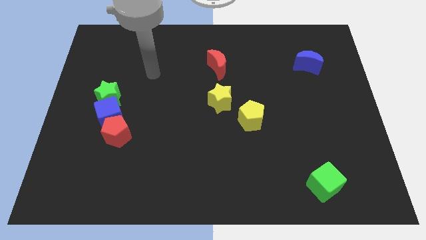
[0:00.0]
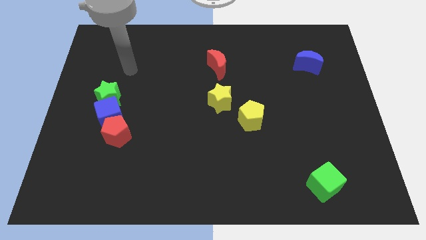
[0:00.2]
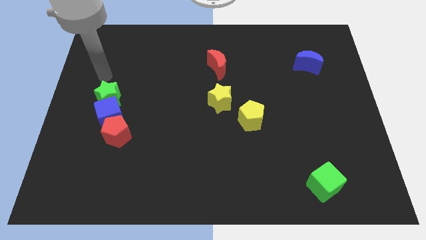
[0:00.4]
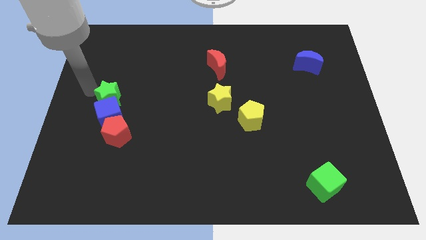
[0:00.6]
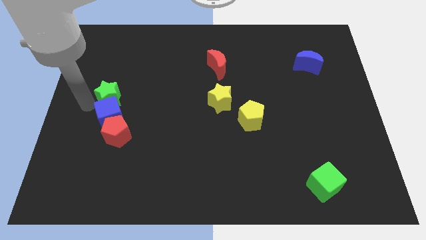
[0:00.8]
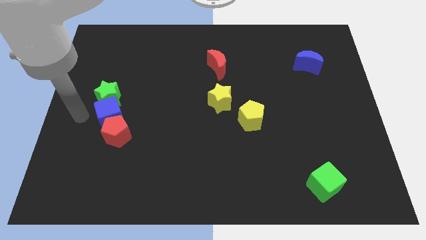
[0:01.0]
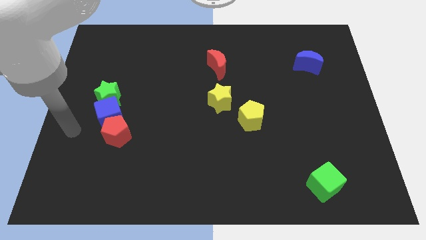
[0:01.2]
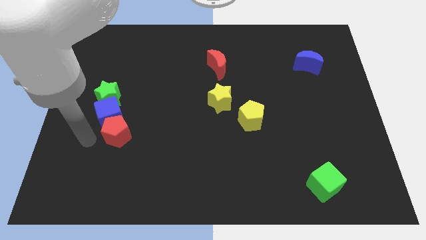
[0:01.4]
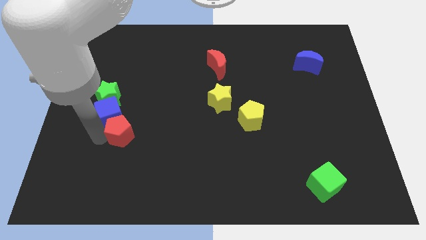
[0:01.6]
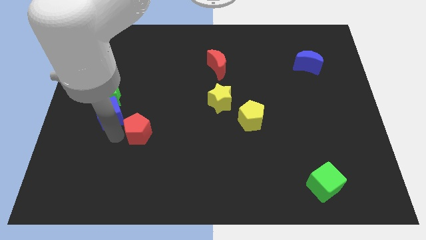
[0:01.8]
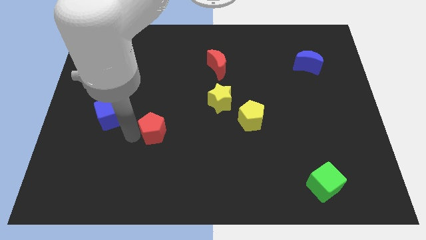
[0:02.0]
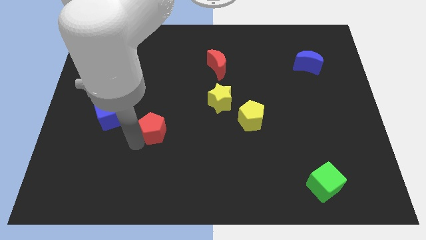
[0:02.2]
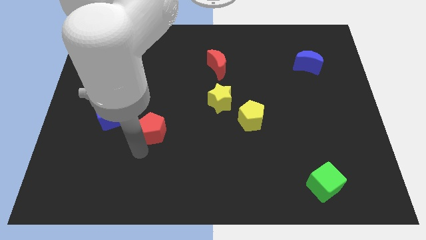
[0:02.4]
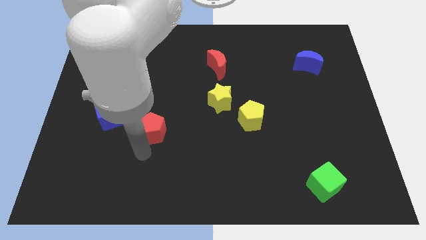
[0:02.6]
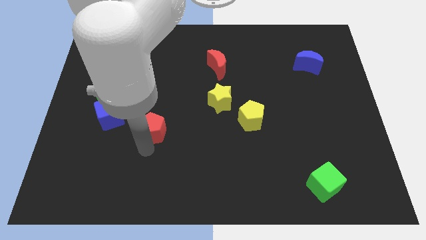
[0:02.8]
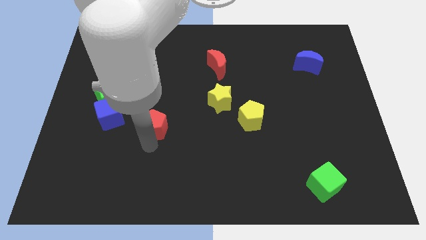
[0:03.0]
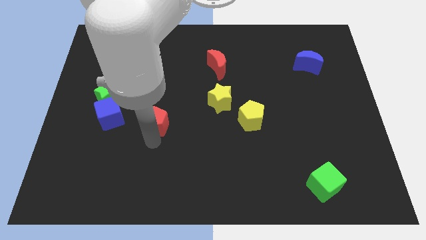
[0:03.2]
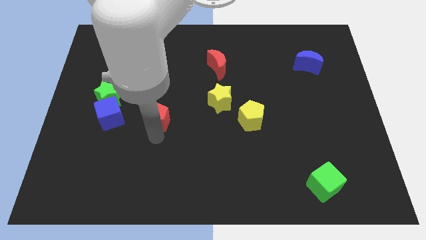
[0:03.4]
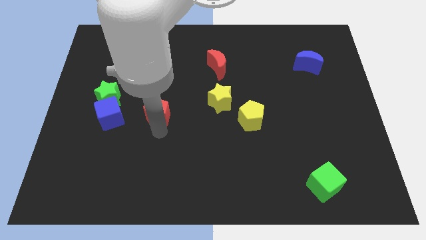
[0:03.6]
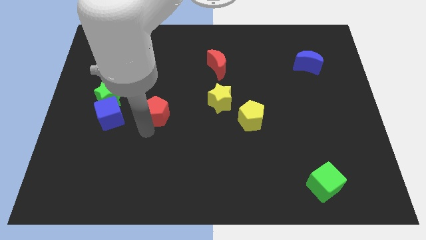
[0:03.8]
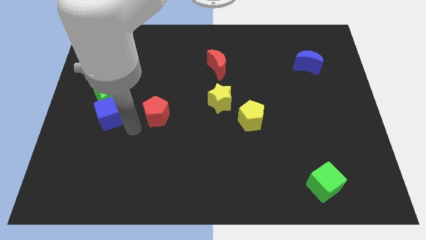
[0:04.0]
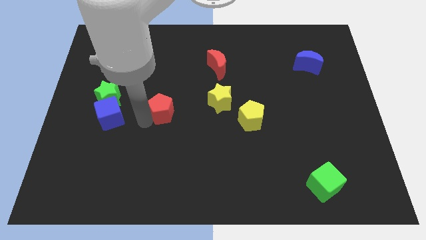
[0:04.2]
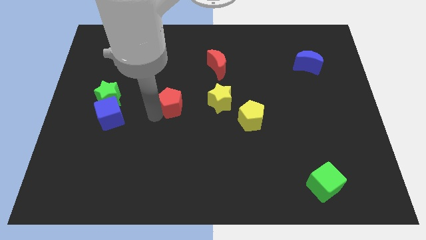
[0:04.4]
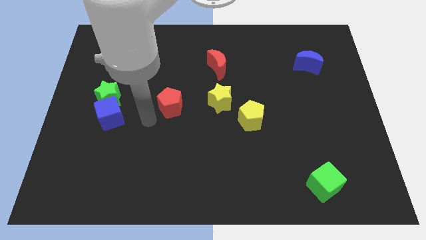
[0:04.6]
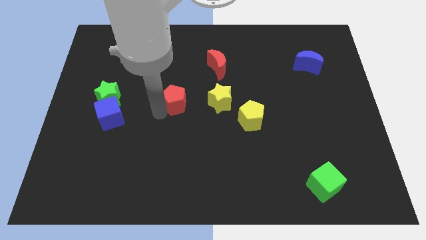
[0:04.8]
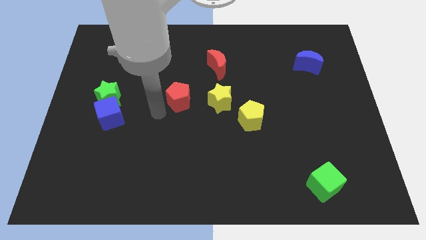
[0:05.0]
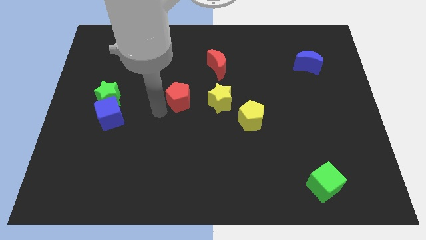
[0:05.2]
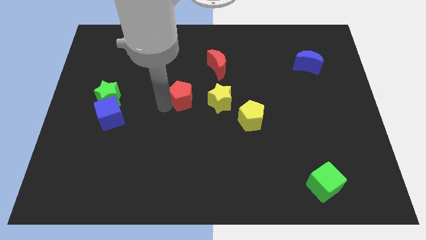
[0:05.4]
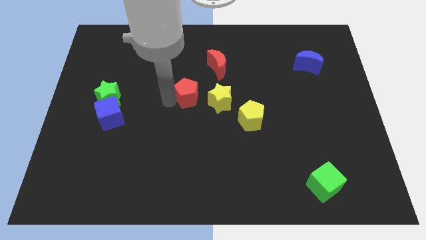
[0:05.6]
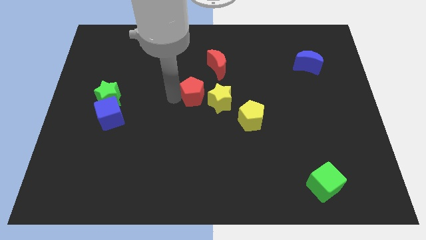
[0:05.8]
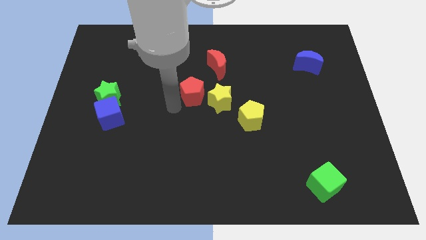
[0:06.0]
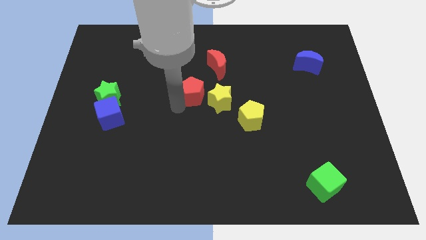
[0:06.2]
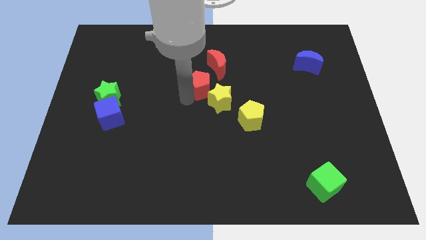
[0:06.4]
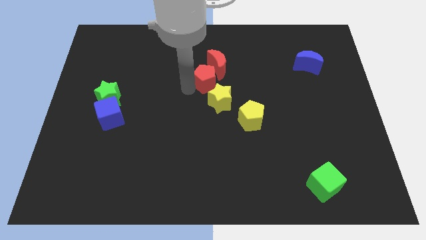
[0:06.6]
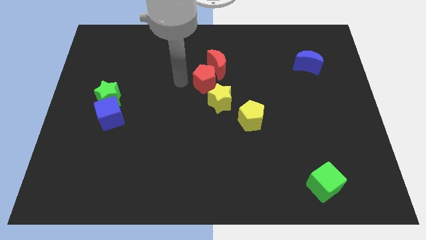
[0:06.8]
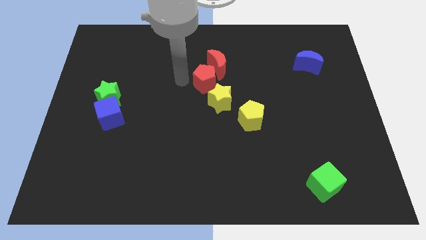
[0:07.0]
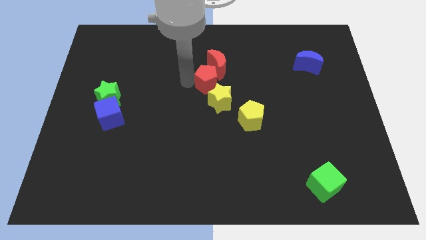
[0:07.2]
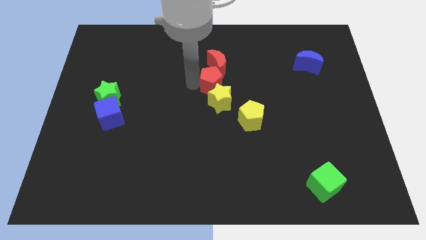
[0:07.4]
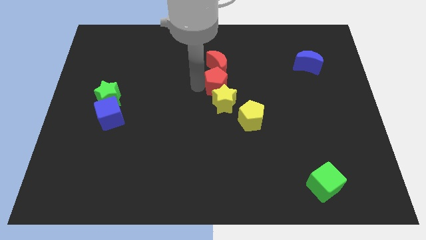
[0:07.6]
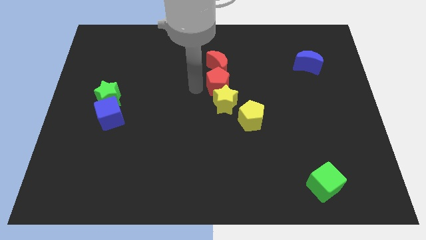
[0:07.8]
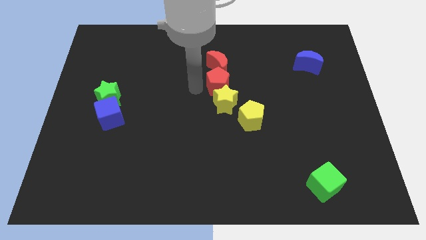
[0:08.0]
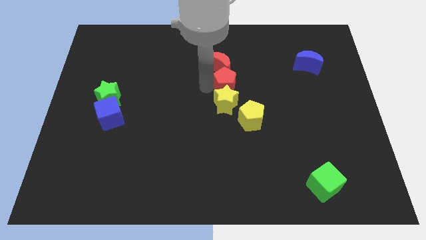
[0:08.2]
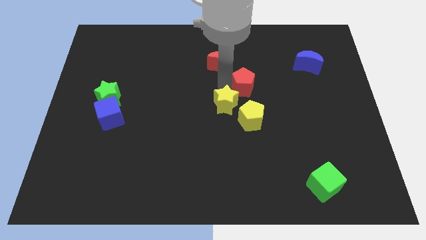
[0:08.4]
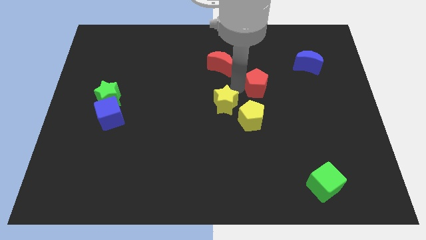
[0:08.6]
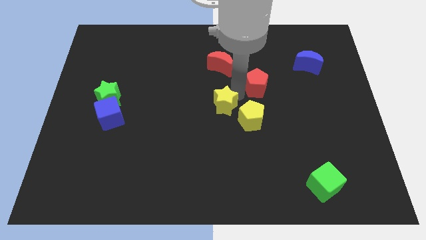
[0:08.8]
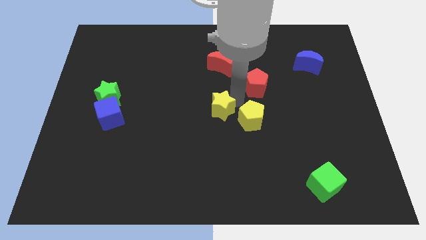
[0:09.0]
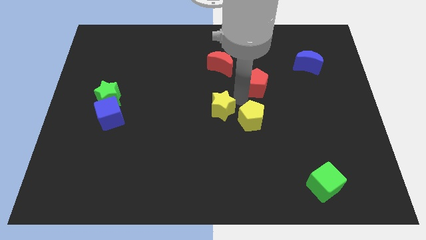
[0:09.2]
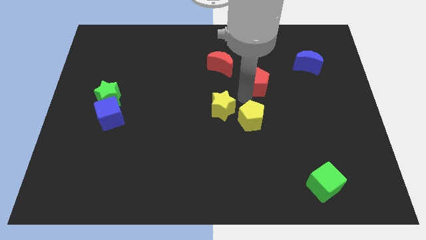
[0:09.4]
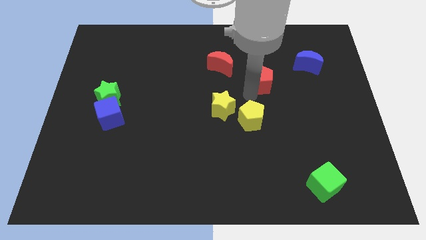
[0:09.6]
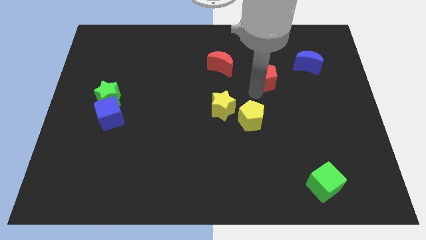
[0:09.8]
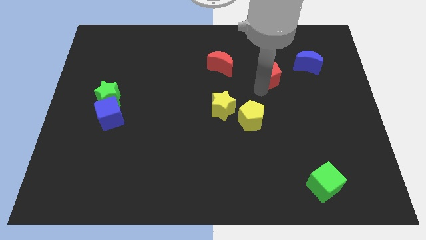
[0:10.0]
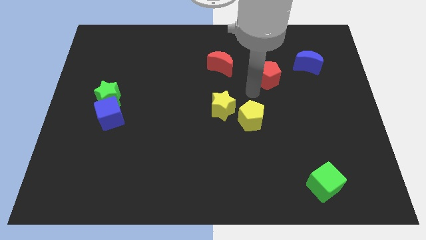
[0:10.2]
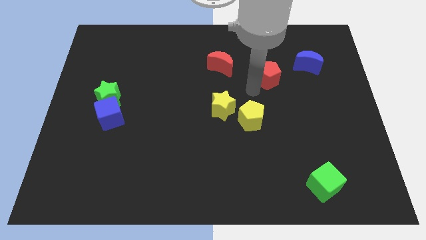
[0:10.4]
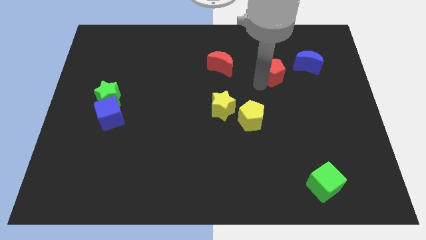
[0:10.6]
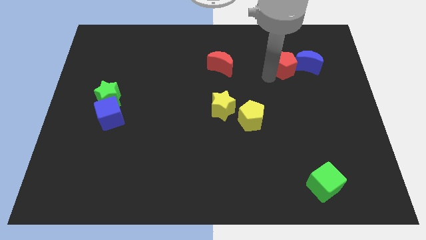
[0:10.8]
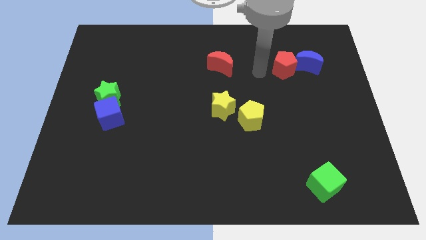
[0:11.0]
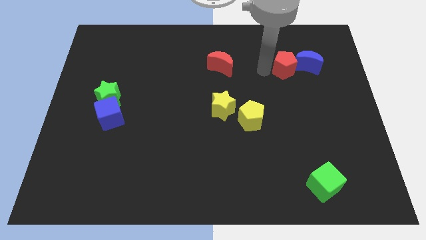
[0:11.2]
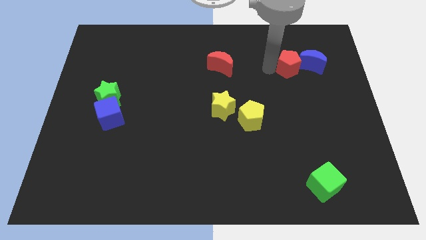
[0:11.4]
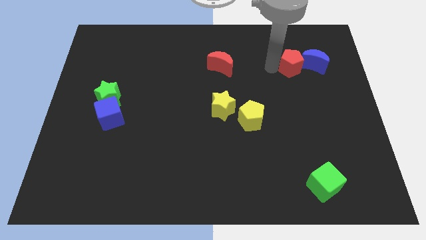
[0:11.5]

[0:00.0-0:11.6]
put the red pentagon next to the blue moon

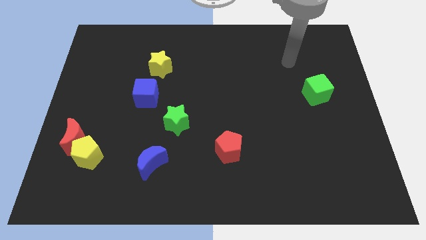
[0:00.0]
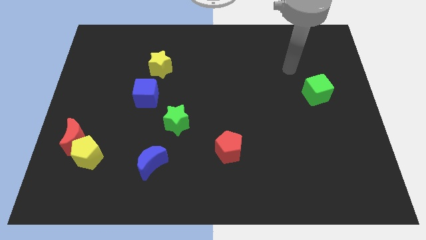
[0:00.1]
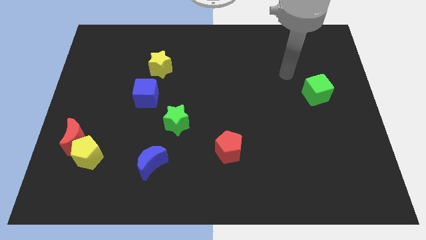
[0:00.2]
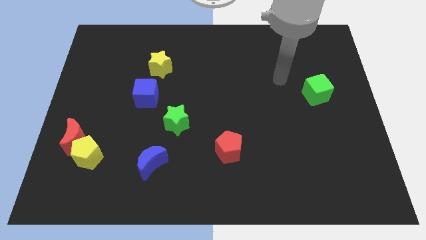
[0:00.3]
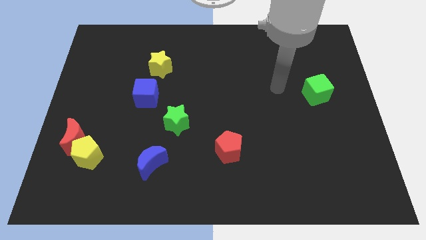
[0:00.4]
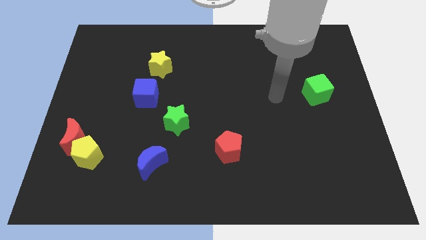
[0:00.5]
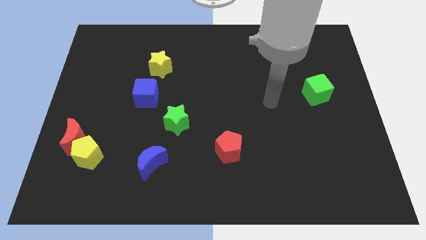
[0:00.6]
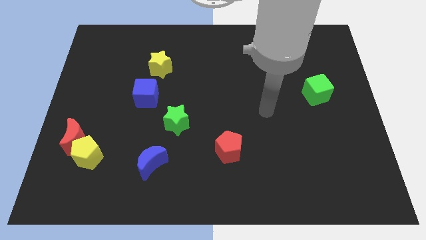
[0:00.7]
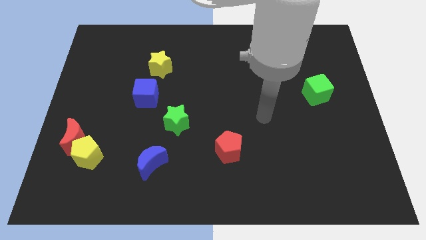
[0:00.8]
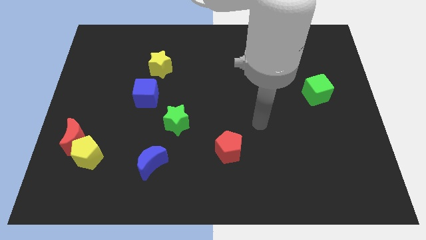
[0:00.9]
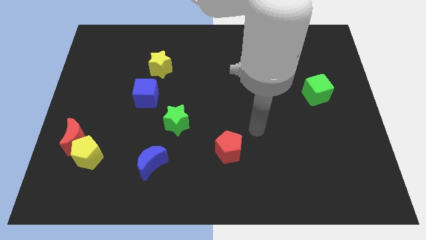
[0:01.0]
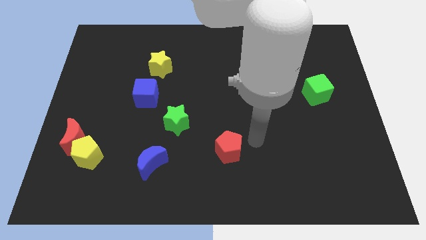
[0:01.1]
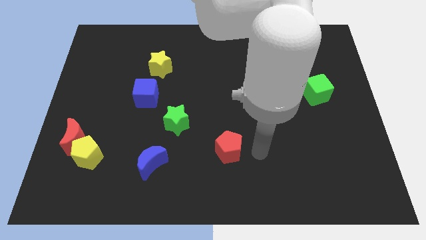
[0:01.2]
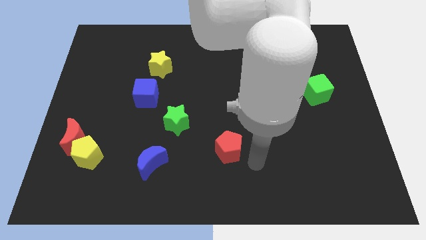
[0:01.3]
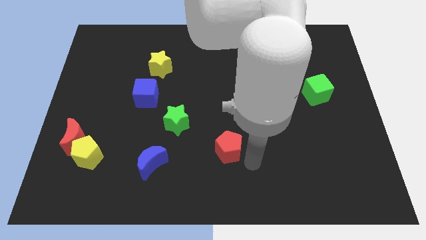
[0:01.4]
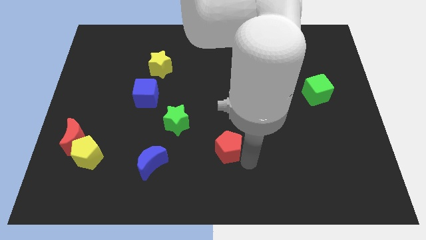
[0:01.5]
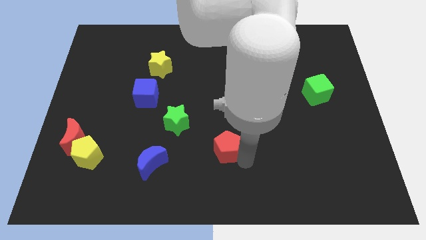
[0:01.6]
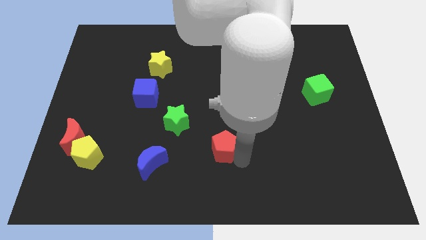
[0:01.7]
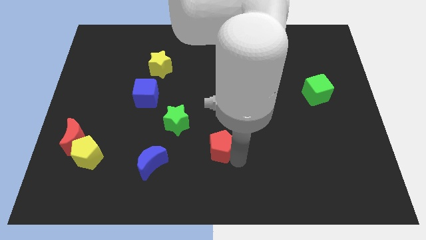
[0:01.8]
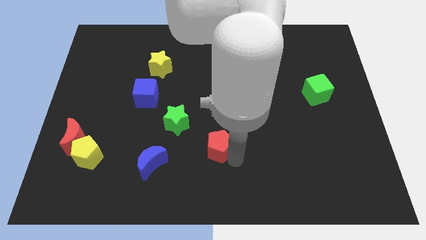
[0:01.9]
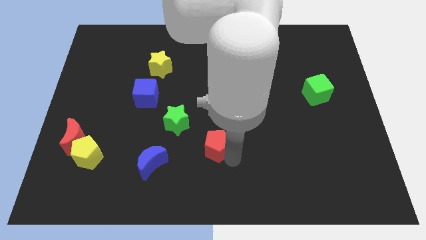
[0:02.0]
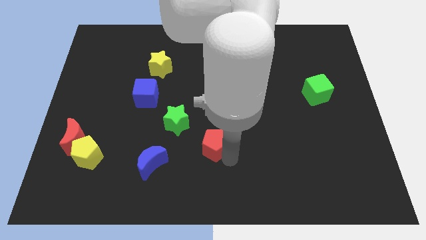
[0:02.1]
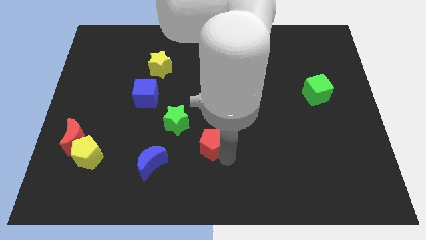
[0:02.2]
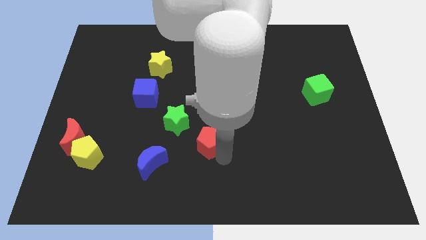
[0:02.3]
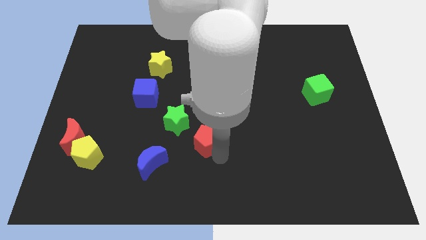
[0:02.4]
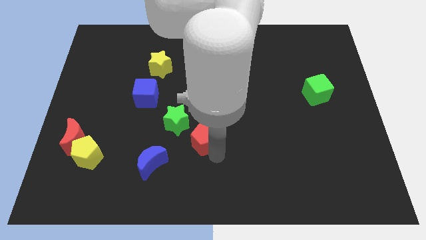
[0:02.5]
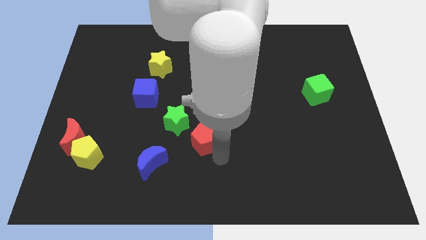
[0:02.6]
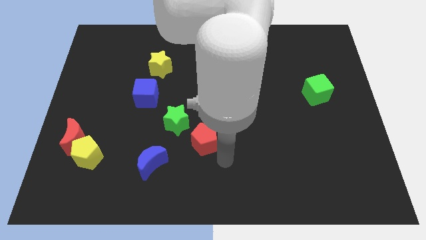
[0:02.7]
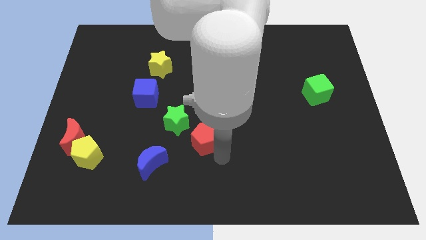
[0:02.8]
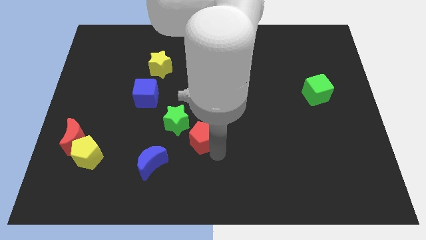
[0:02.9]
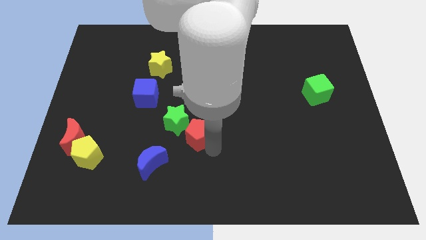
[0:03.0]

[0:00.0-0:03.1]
slide the red pentagon close to the green star
